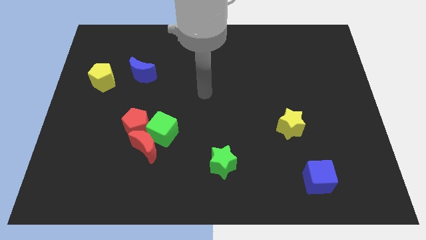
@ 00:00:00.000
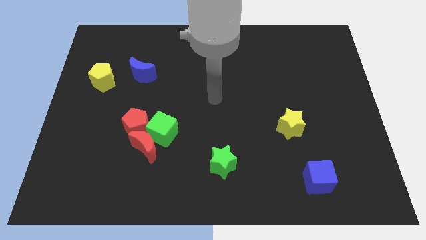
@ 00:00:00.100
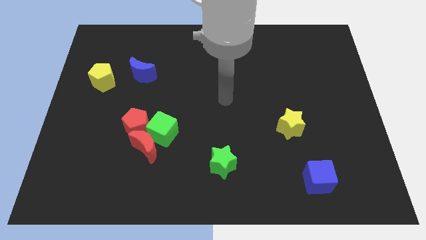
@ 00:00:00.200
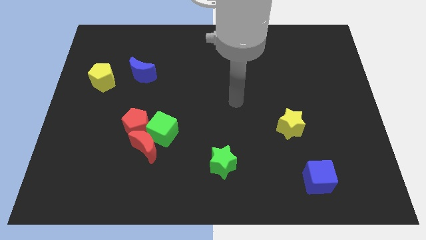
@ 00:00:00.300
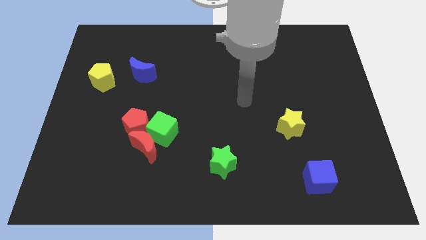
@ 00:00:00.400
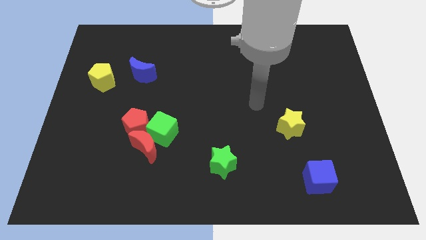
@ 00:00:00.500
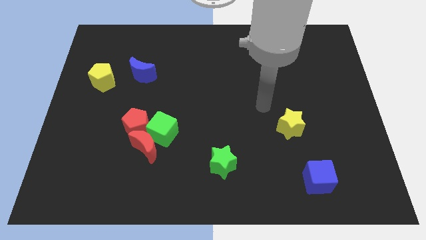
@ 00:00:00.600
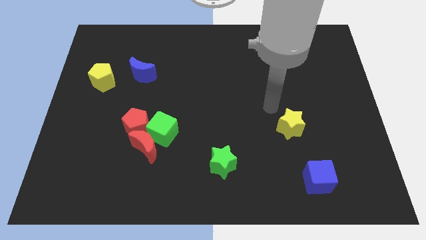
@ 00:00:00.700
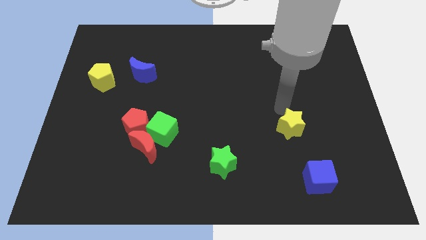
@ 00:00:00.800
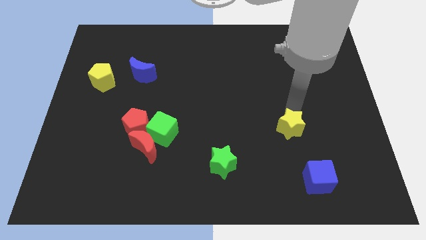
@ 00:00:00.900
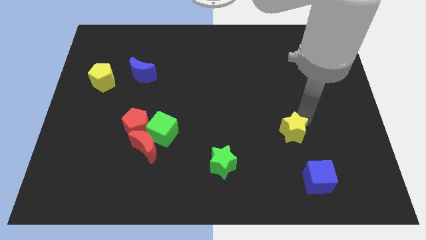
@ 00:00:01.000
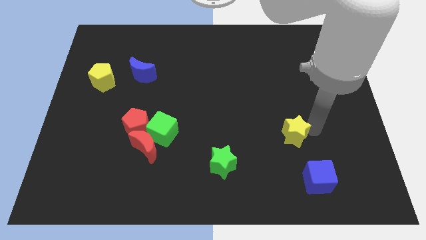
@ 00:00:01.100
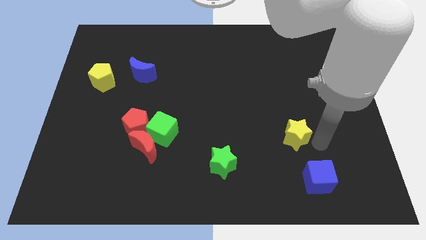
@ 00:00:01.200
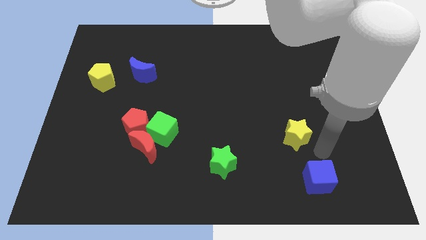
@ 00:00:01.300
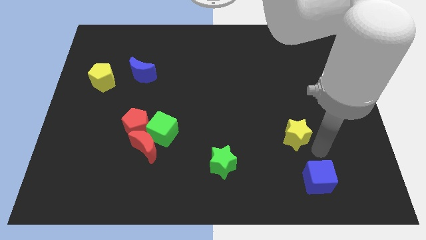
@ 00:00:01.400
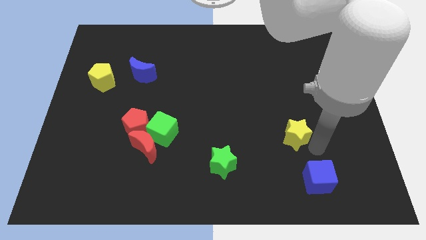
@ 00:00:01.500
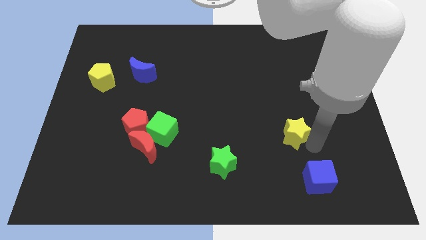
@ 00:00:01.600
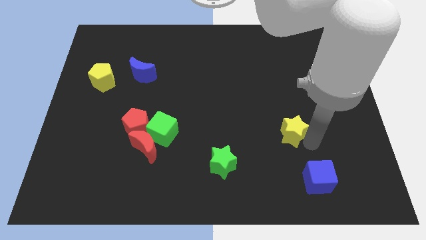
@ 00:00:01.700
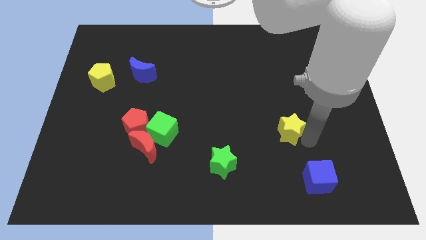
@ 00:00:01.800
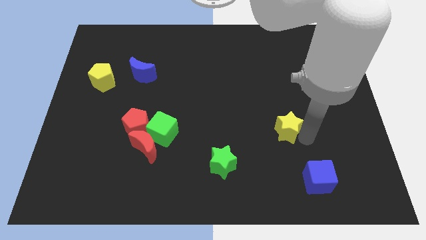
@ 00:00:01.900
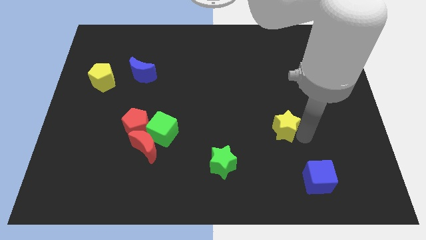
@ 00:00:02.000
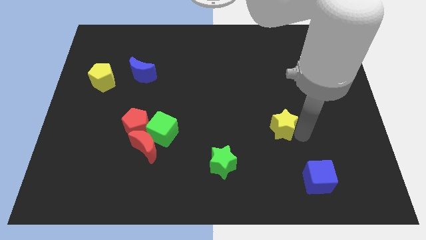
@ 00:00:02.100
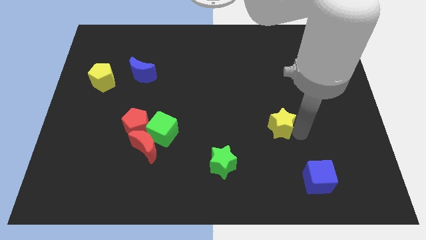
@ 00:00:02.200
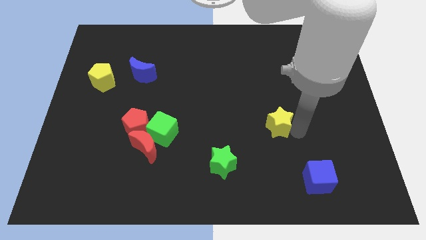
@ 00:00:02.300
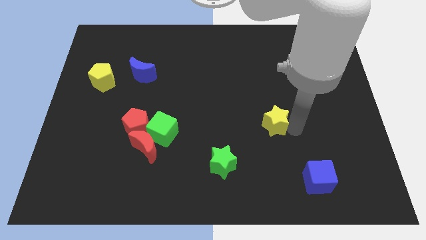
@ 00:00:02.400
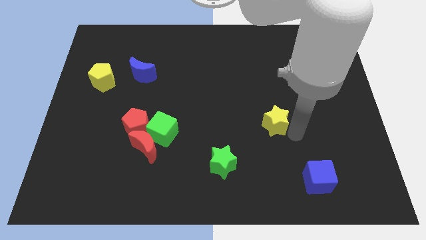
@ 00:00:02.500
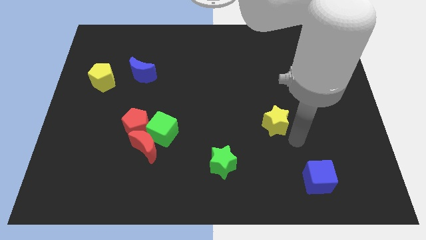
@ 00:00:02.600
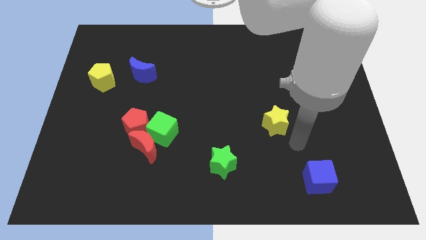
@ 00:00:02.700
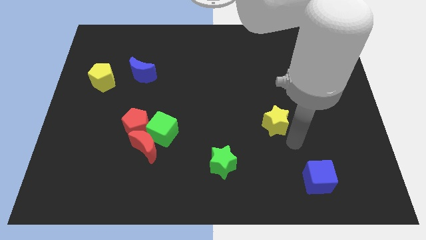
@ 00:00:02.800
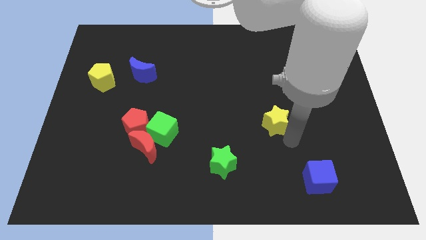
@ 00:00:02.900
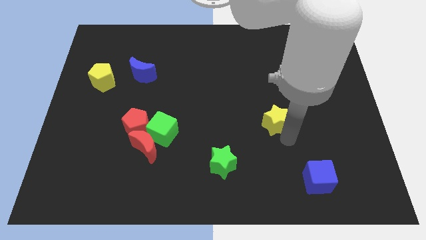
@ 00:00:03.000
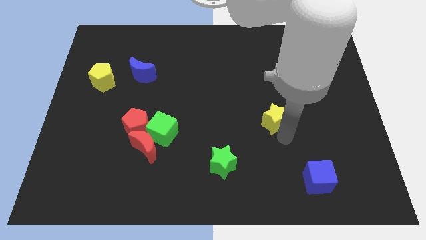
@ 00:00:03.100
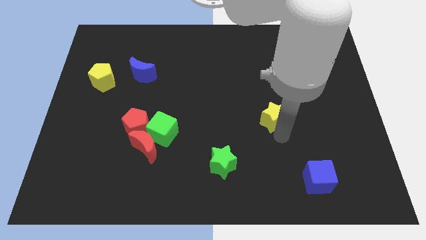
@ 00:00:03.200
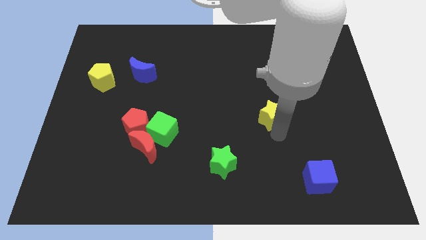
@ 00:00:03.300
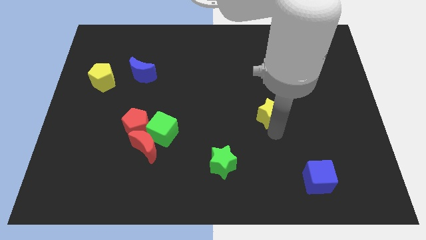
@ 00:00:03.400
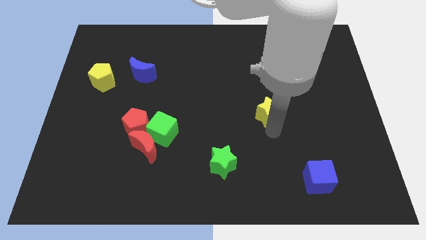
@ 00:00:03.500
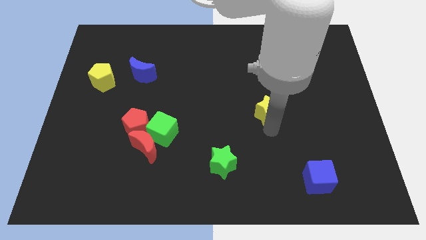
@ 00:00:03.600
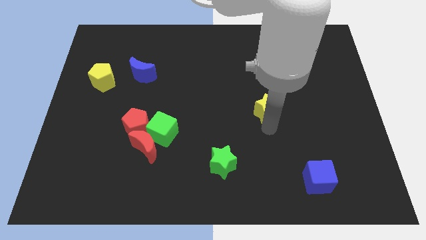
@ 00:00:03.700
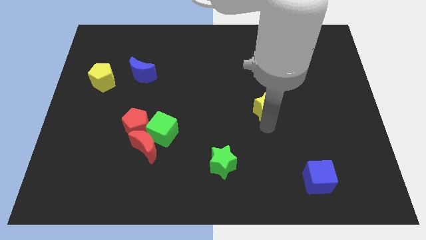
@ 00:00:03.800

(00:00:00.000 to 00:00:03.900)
slightly push the yellow star diagonally upwards and to the left

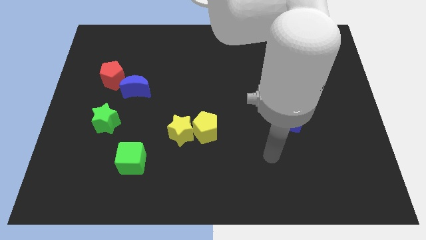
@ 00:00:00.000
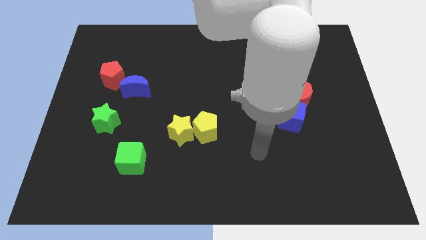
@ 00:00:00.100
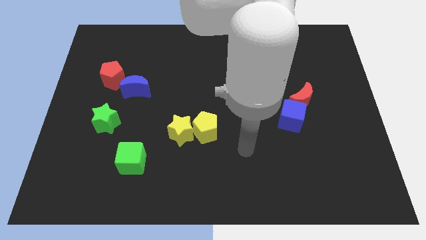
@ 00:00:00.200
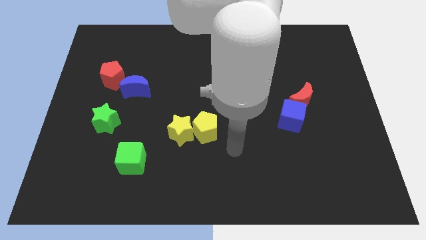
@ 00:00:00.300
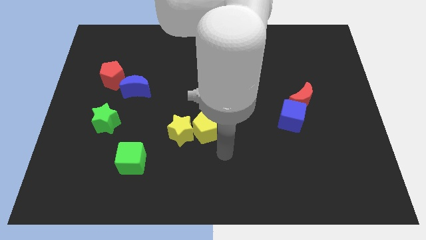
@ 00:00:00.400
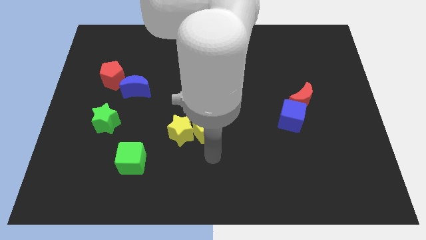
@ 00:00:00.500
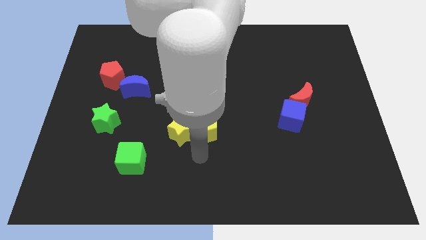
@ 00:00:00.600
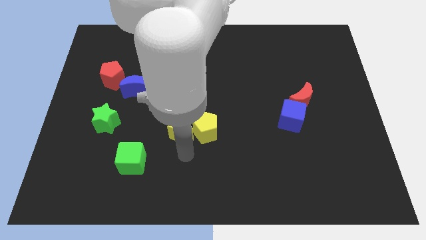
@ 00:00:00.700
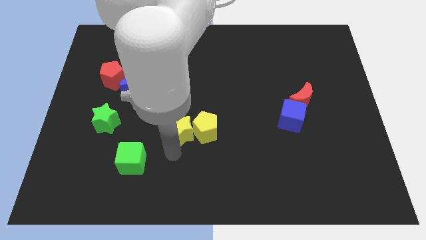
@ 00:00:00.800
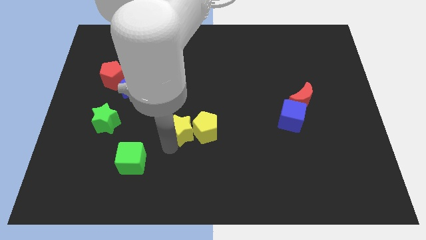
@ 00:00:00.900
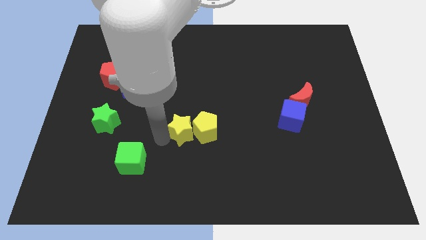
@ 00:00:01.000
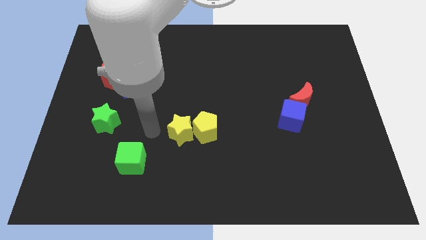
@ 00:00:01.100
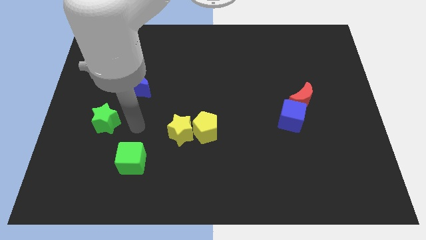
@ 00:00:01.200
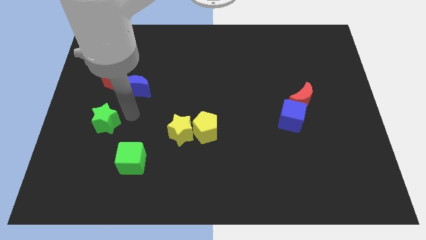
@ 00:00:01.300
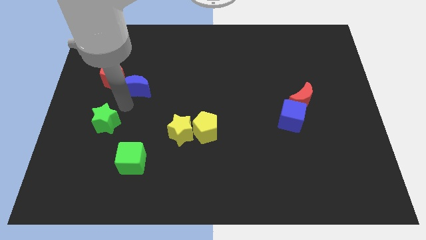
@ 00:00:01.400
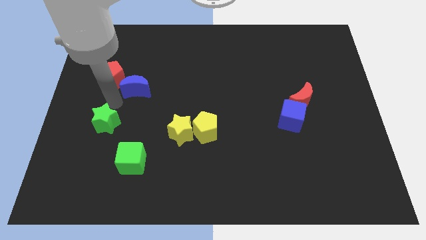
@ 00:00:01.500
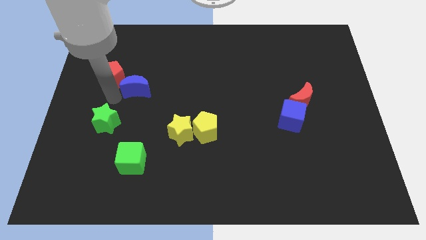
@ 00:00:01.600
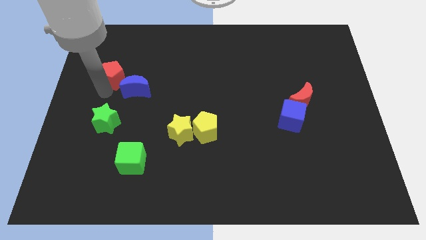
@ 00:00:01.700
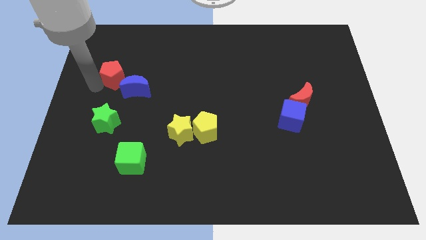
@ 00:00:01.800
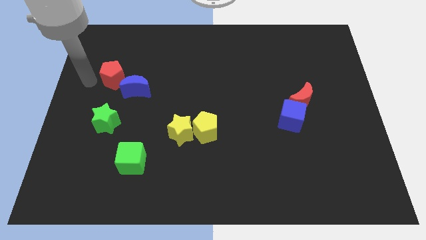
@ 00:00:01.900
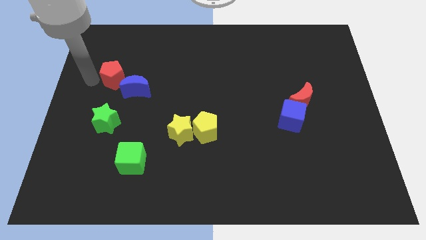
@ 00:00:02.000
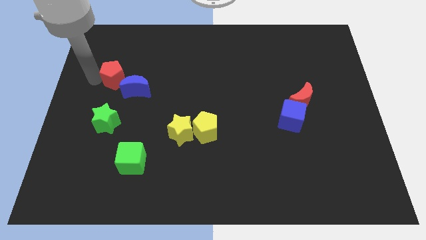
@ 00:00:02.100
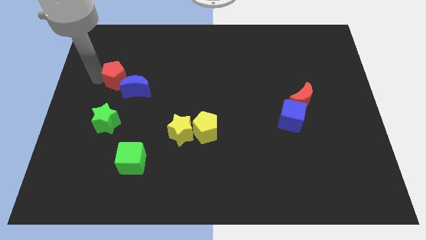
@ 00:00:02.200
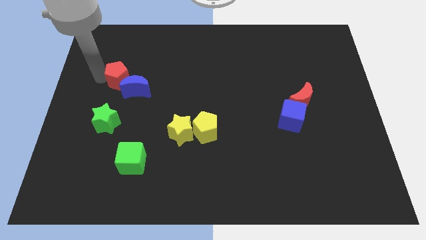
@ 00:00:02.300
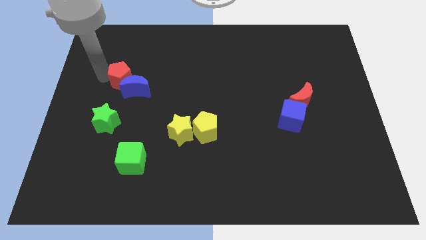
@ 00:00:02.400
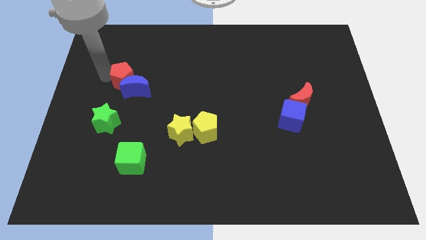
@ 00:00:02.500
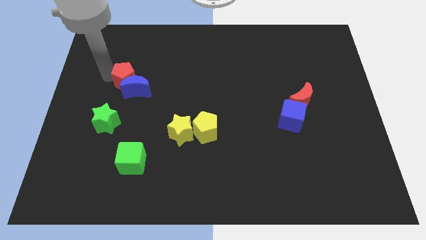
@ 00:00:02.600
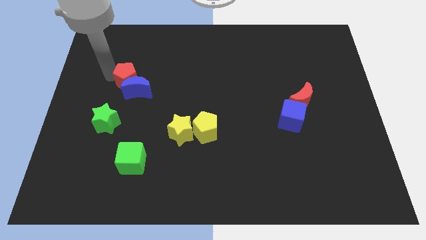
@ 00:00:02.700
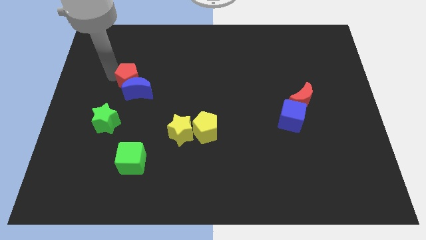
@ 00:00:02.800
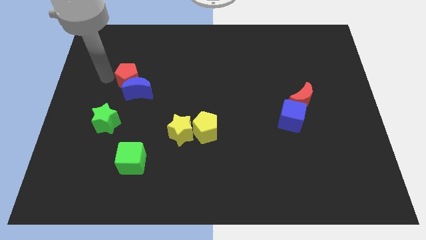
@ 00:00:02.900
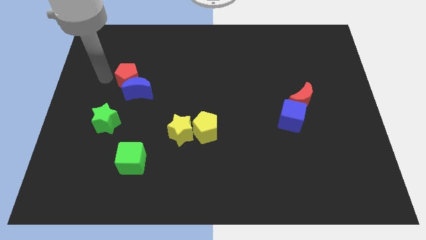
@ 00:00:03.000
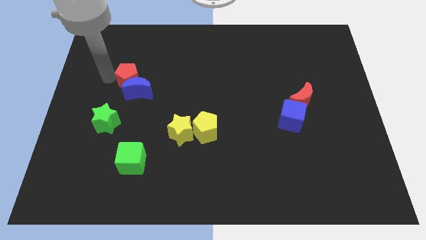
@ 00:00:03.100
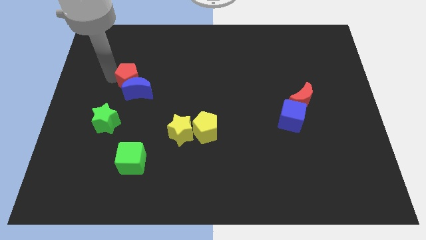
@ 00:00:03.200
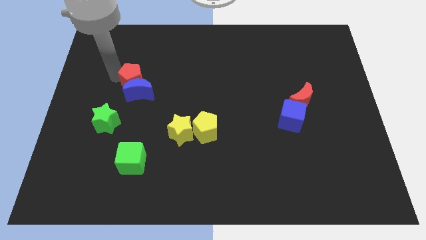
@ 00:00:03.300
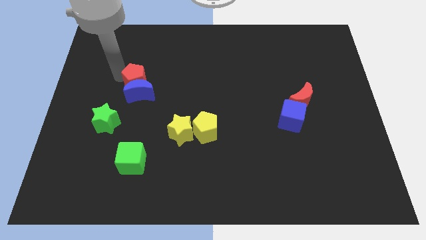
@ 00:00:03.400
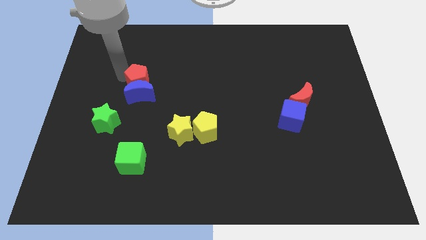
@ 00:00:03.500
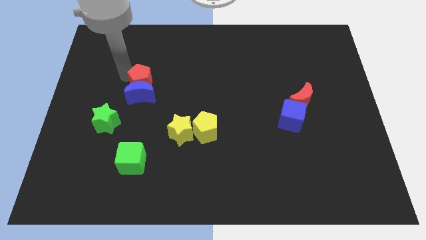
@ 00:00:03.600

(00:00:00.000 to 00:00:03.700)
slightly move the red pentagon to the right
